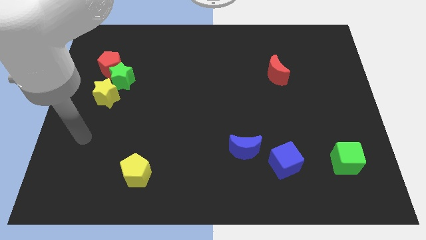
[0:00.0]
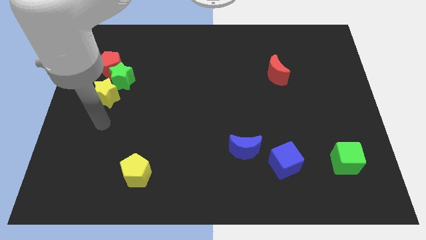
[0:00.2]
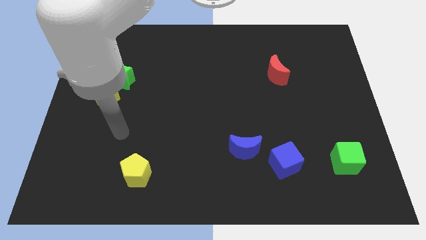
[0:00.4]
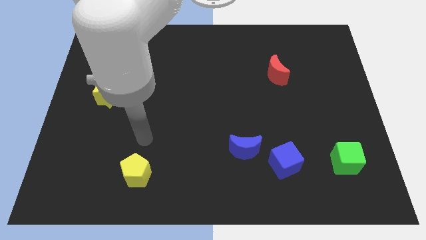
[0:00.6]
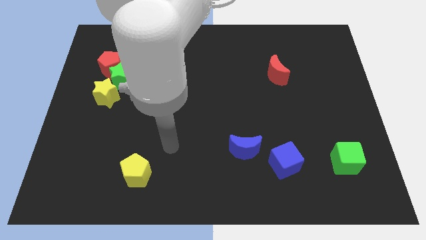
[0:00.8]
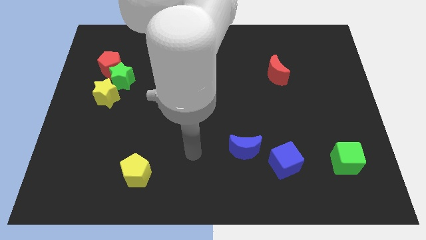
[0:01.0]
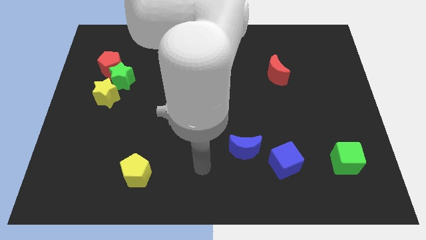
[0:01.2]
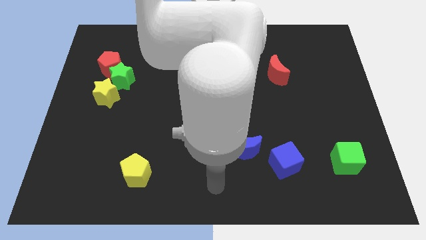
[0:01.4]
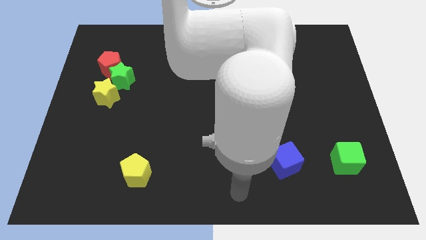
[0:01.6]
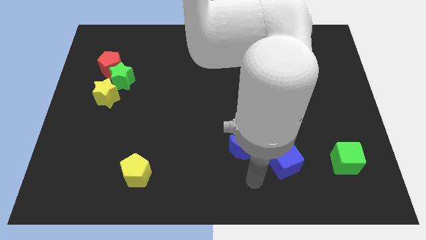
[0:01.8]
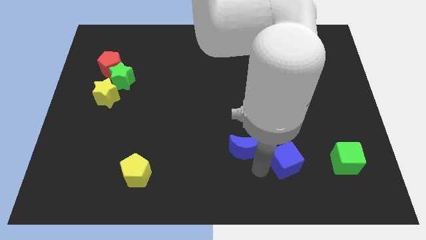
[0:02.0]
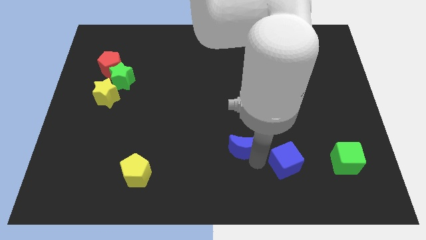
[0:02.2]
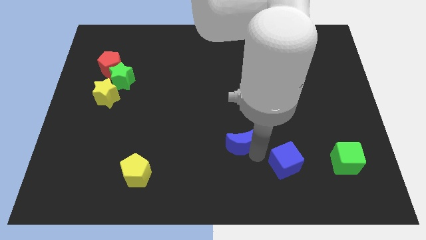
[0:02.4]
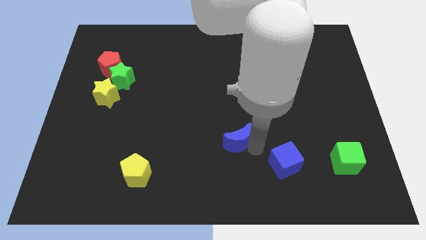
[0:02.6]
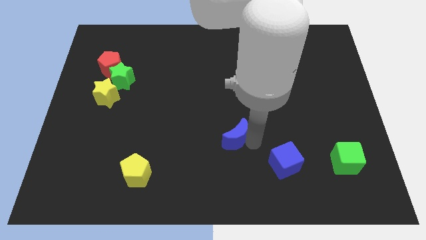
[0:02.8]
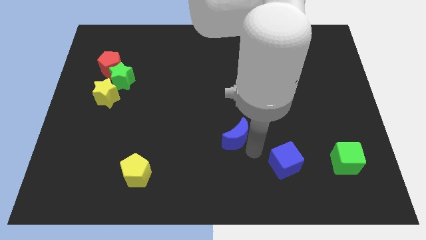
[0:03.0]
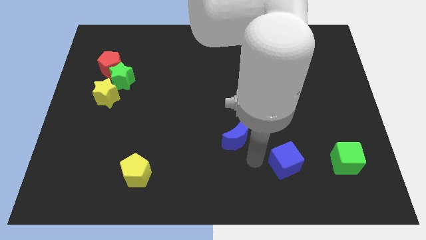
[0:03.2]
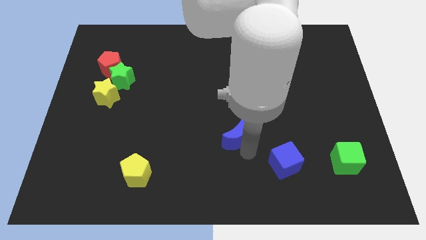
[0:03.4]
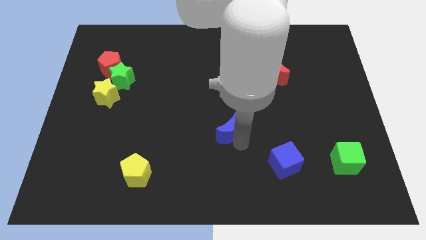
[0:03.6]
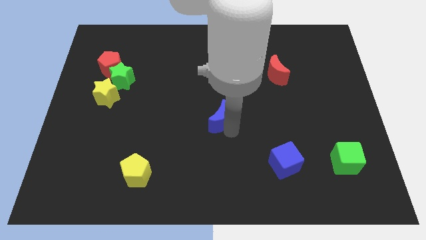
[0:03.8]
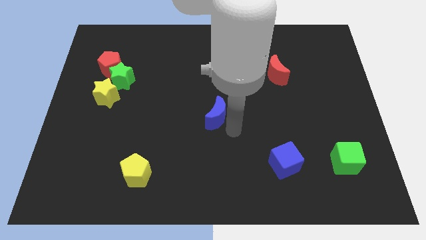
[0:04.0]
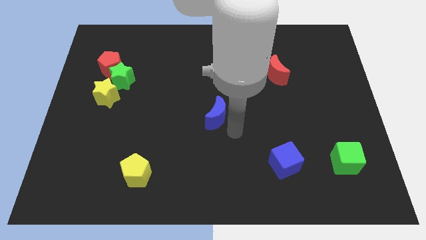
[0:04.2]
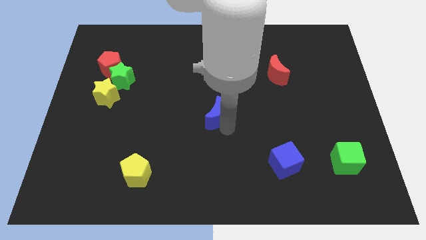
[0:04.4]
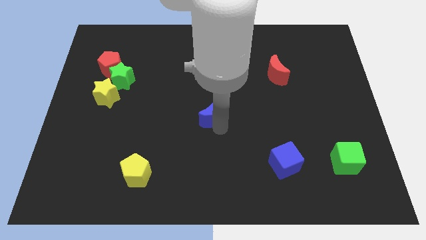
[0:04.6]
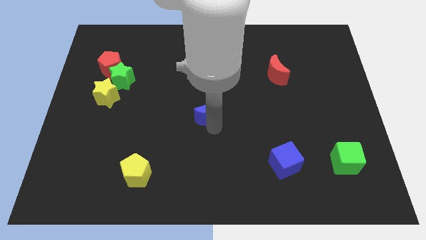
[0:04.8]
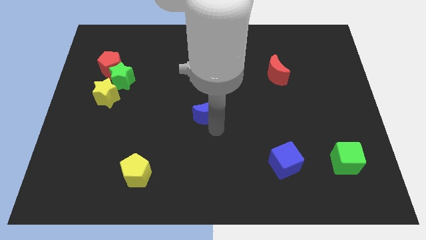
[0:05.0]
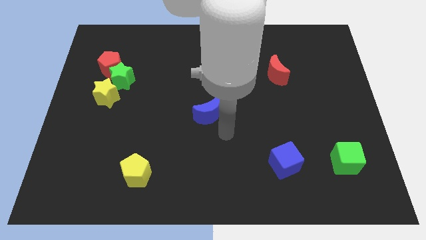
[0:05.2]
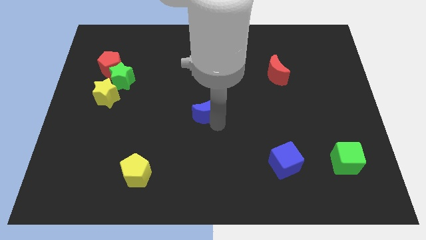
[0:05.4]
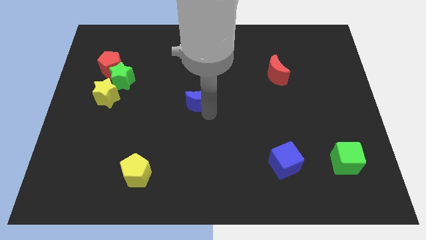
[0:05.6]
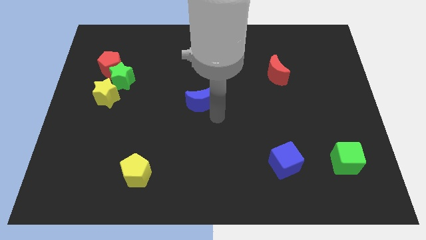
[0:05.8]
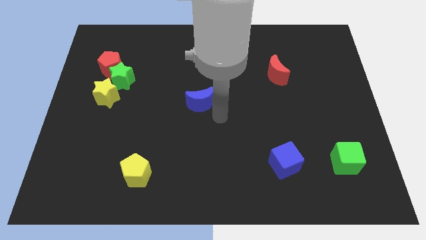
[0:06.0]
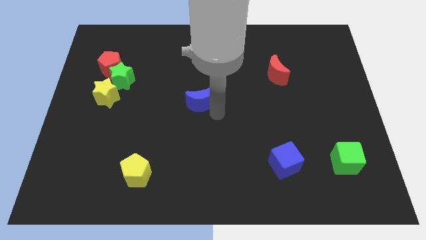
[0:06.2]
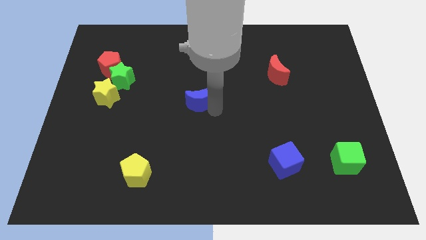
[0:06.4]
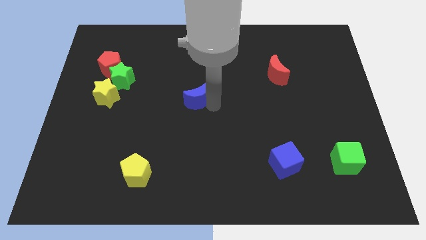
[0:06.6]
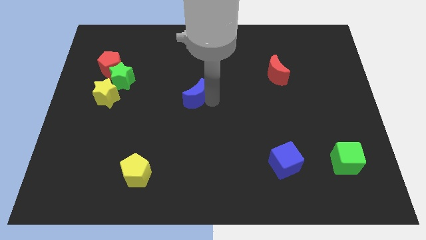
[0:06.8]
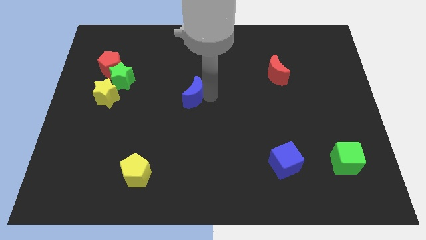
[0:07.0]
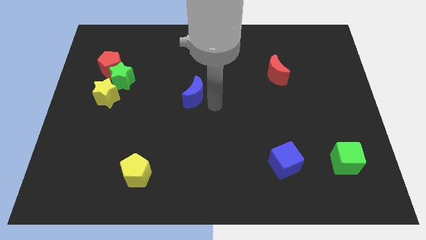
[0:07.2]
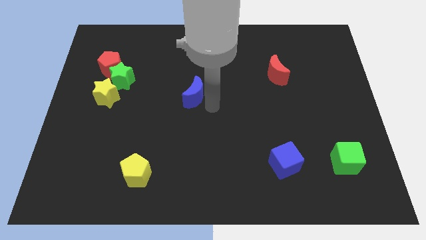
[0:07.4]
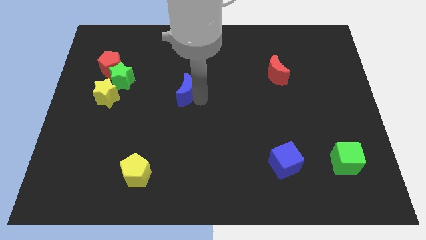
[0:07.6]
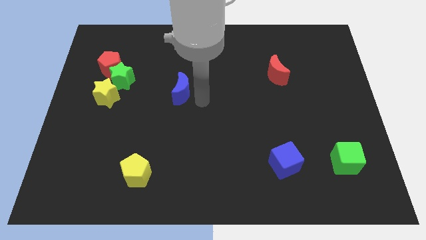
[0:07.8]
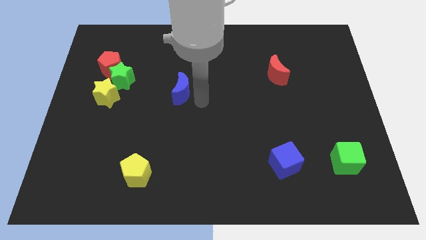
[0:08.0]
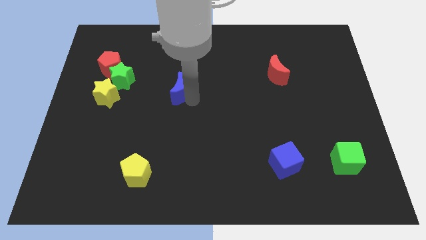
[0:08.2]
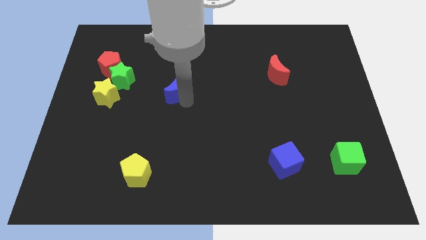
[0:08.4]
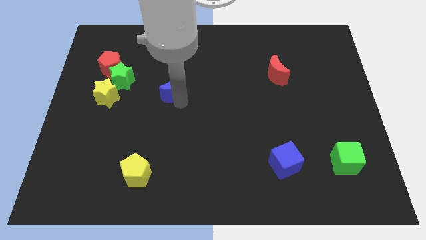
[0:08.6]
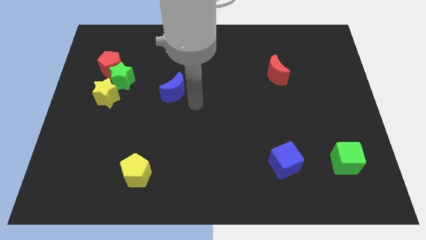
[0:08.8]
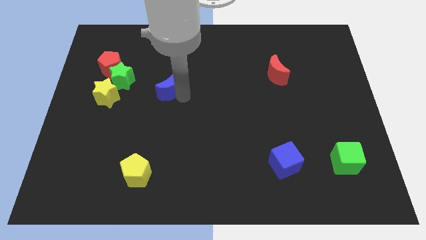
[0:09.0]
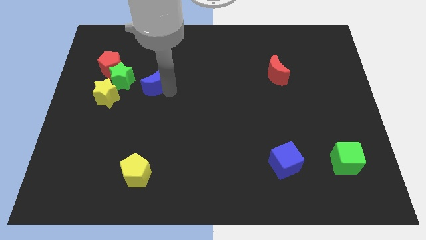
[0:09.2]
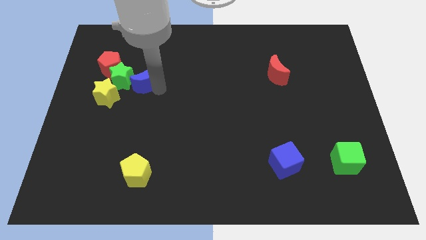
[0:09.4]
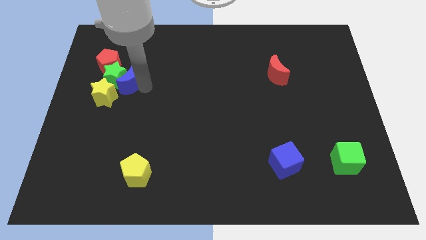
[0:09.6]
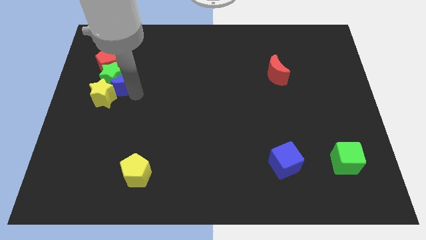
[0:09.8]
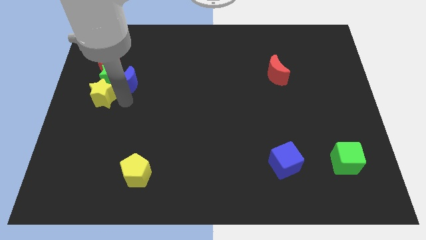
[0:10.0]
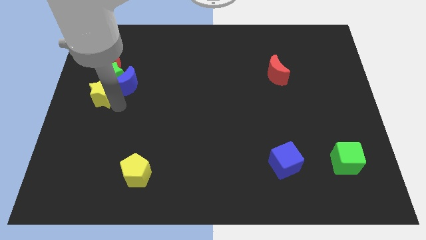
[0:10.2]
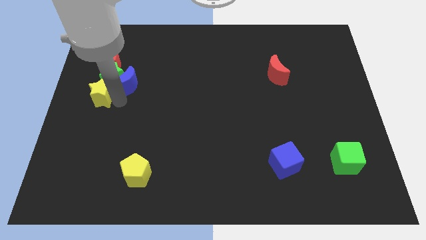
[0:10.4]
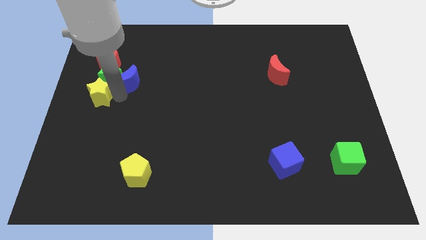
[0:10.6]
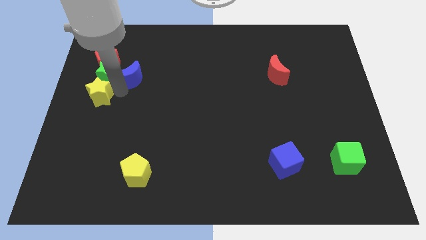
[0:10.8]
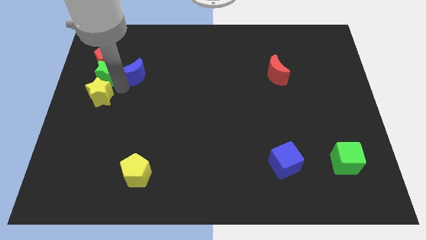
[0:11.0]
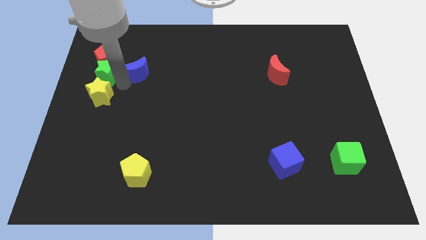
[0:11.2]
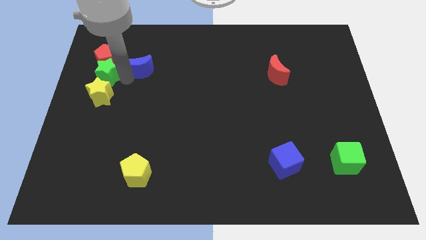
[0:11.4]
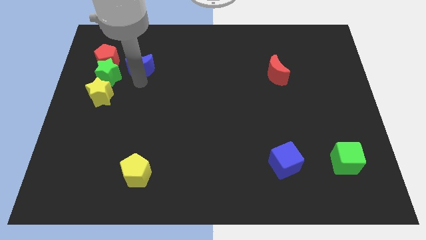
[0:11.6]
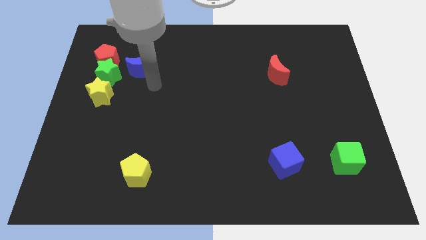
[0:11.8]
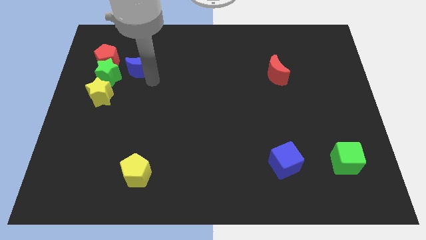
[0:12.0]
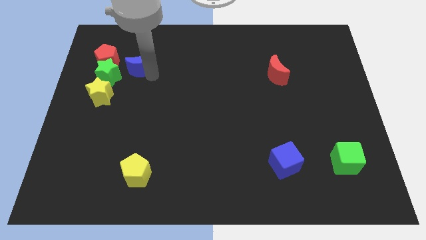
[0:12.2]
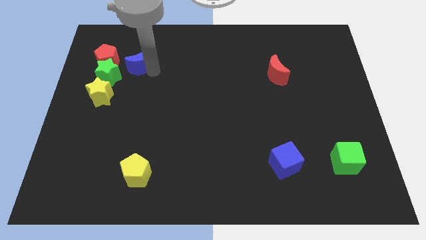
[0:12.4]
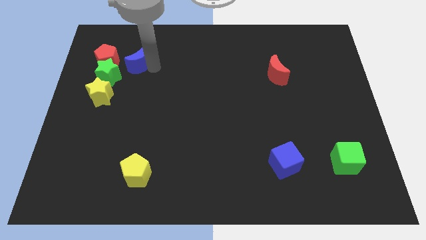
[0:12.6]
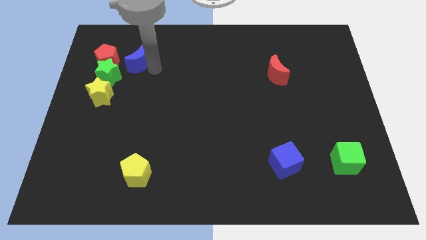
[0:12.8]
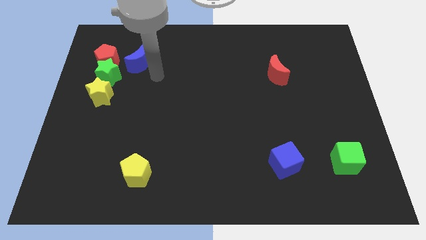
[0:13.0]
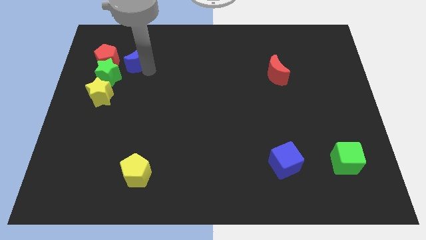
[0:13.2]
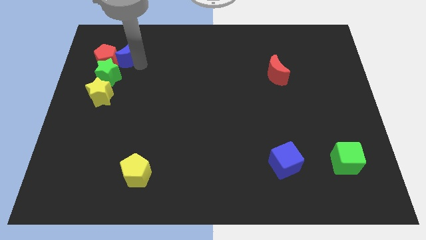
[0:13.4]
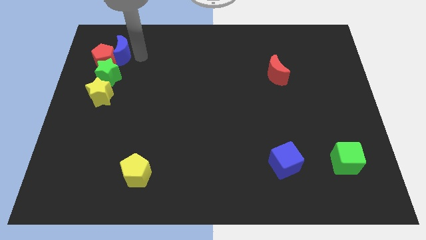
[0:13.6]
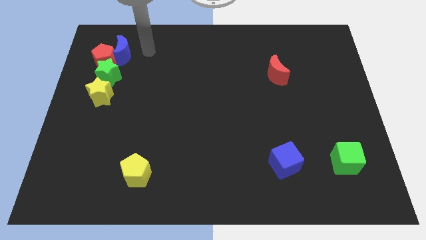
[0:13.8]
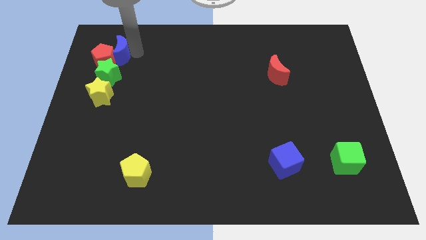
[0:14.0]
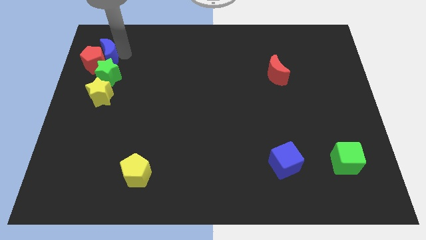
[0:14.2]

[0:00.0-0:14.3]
put the blue moon diagonally up and to the left of the green star
